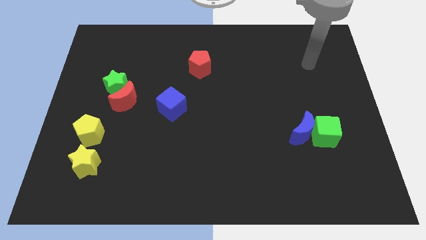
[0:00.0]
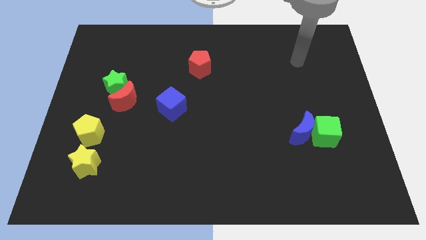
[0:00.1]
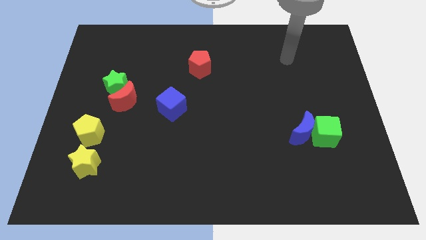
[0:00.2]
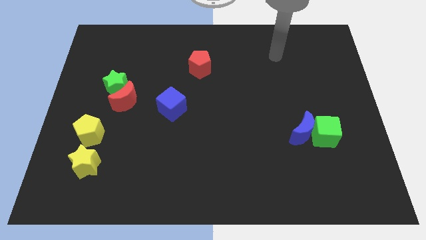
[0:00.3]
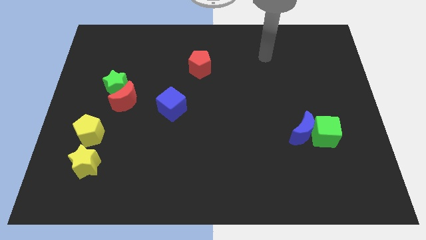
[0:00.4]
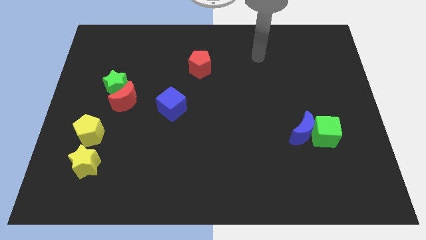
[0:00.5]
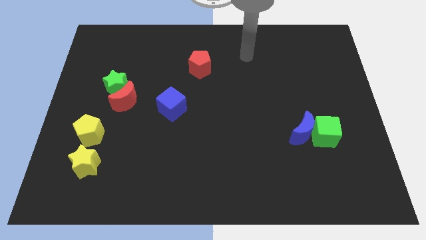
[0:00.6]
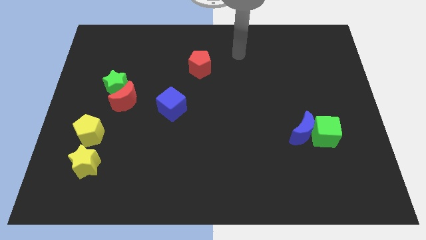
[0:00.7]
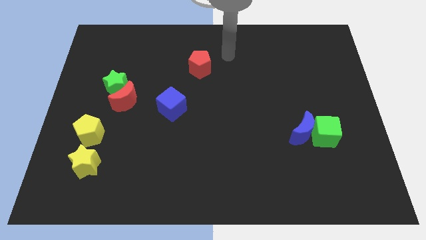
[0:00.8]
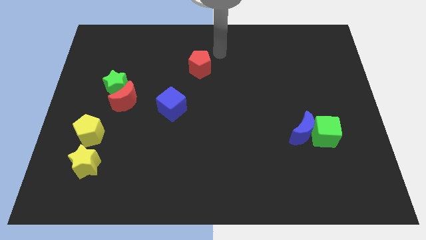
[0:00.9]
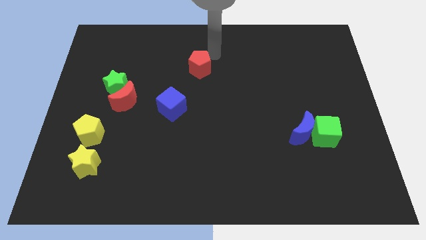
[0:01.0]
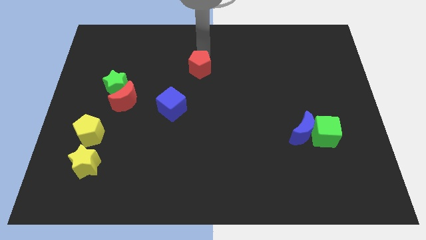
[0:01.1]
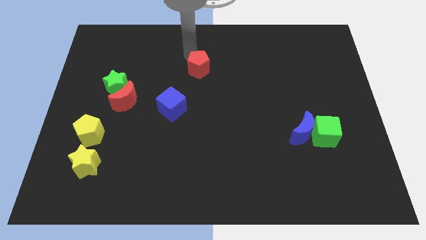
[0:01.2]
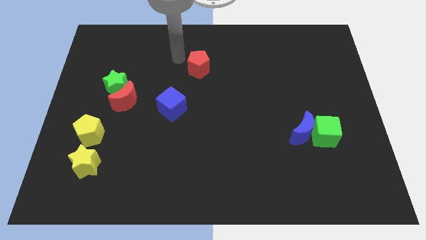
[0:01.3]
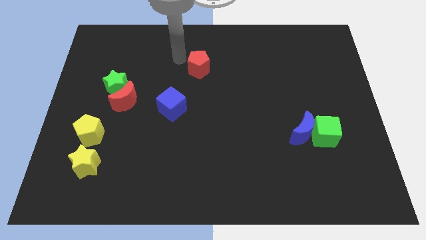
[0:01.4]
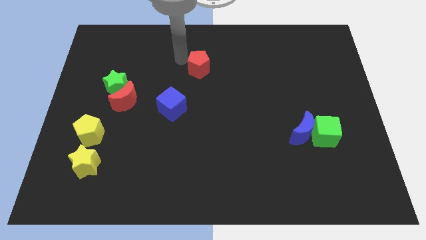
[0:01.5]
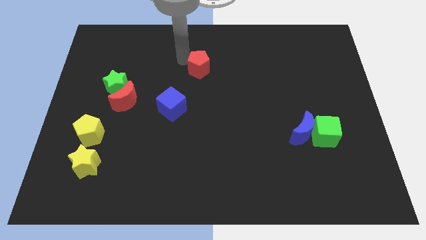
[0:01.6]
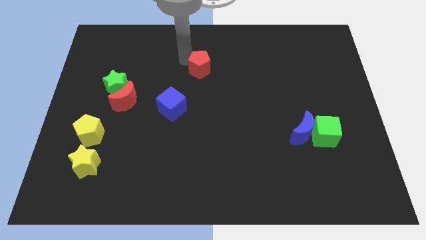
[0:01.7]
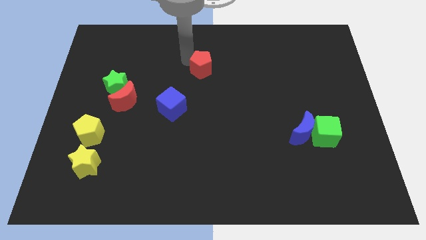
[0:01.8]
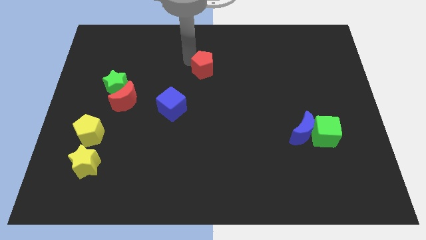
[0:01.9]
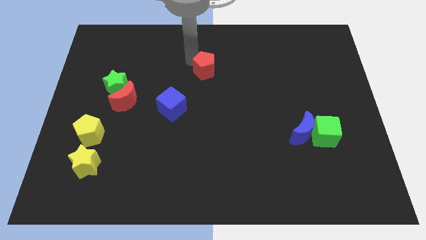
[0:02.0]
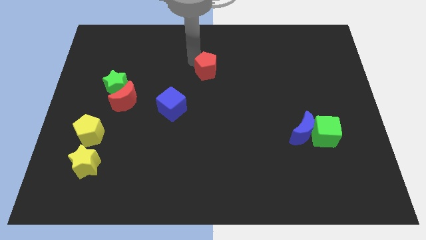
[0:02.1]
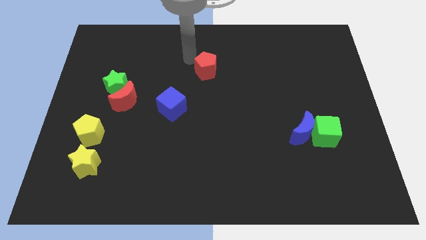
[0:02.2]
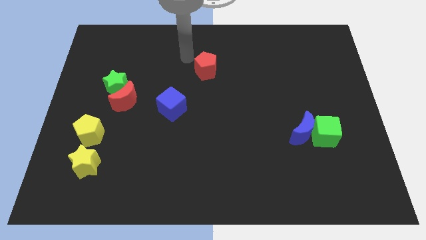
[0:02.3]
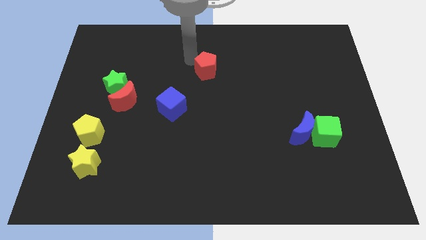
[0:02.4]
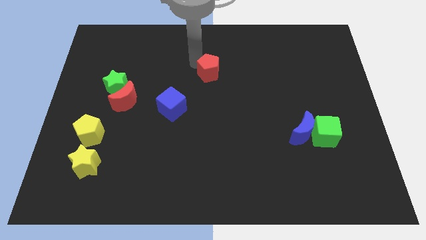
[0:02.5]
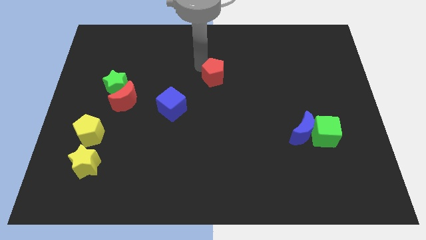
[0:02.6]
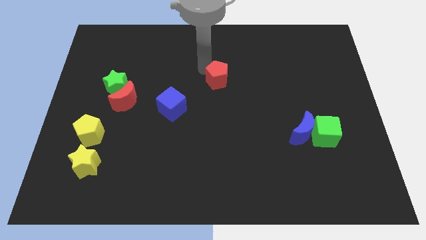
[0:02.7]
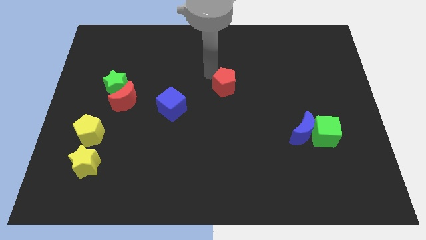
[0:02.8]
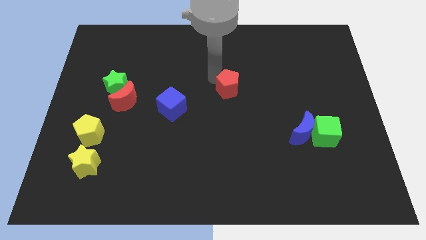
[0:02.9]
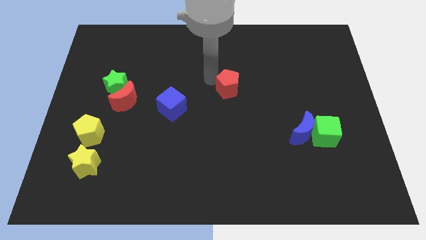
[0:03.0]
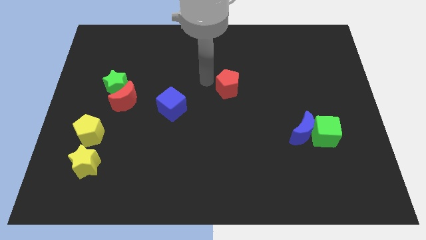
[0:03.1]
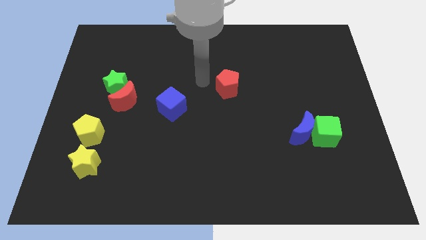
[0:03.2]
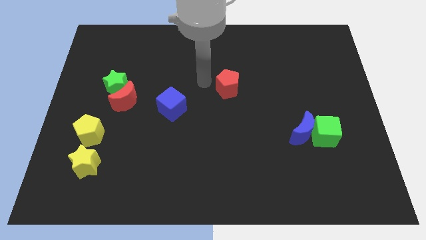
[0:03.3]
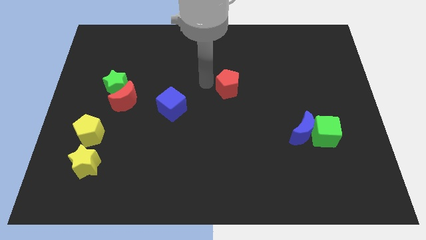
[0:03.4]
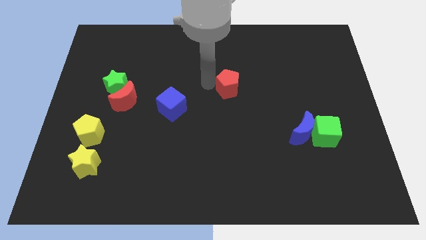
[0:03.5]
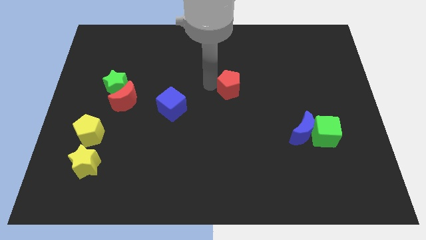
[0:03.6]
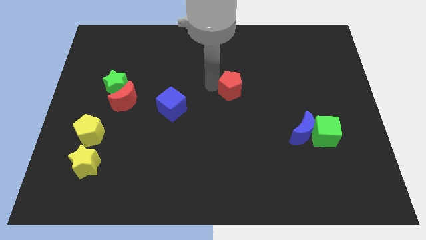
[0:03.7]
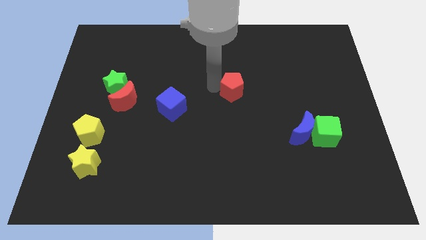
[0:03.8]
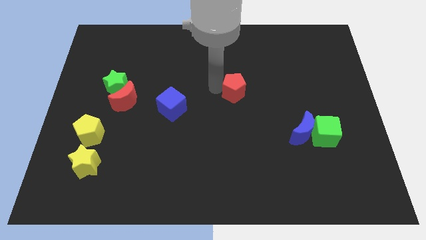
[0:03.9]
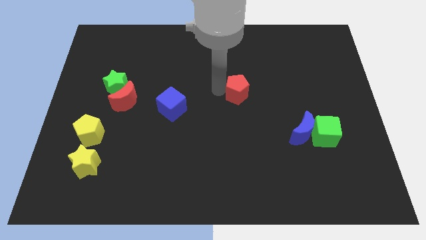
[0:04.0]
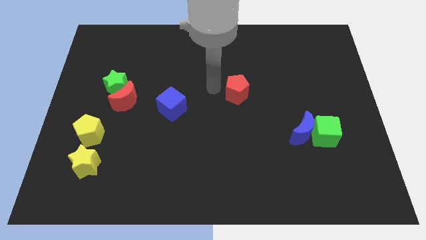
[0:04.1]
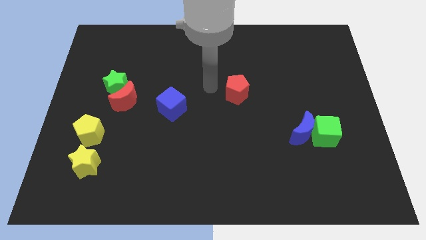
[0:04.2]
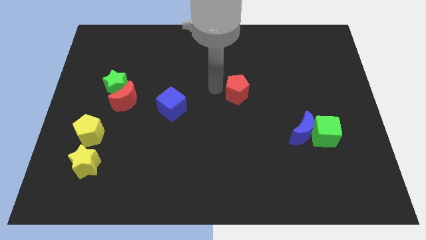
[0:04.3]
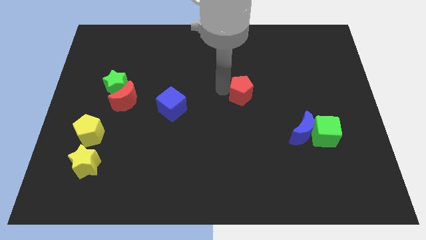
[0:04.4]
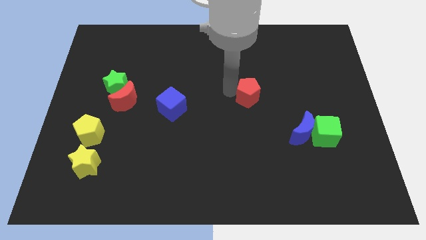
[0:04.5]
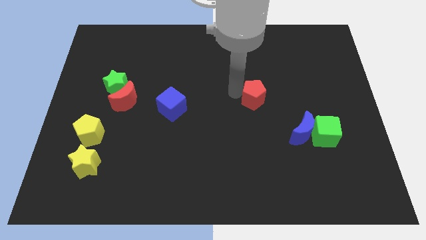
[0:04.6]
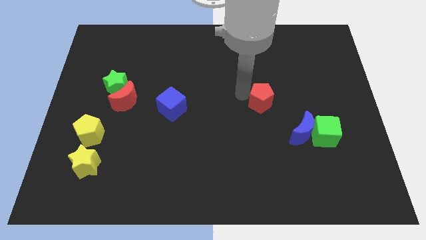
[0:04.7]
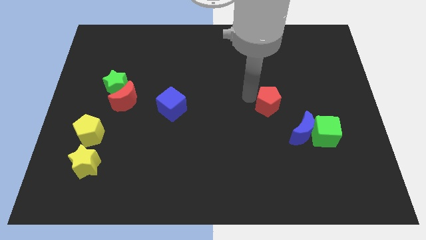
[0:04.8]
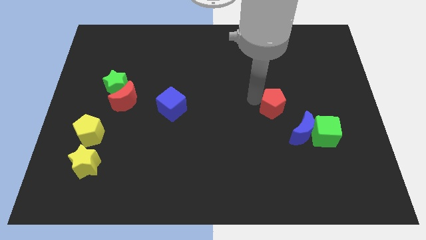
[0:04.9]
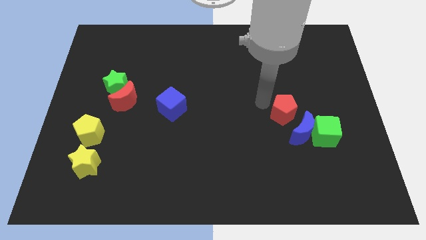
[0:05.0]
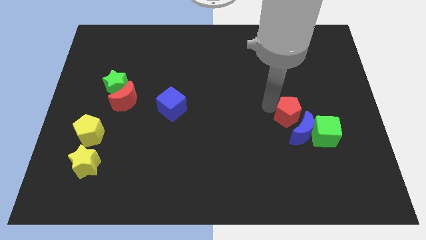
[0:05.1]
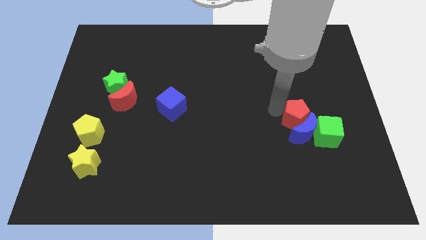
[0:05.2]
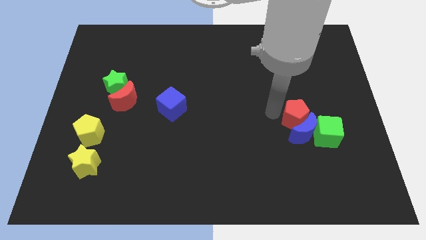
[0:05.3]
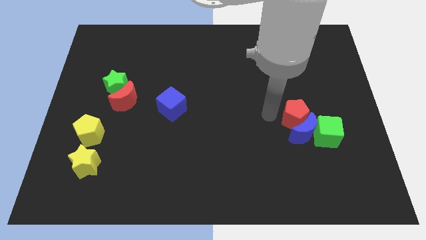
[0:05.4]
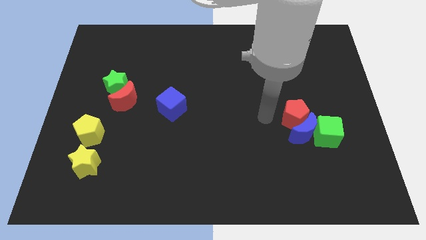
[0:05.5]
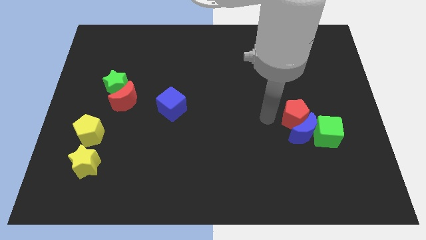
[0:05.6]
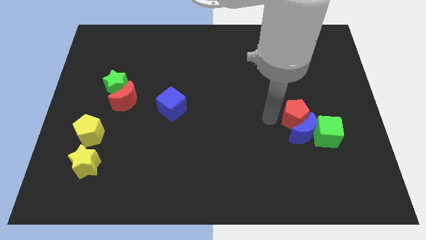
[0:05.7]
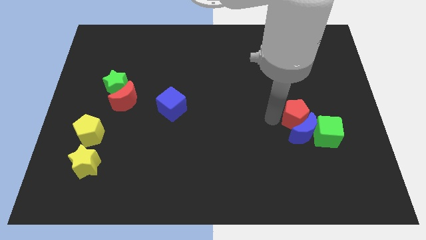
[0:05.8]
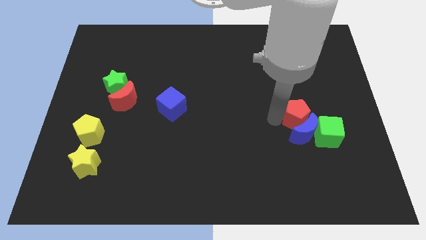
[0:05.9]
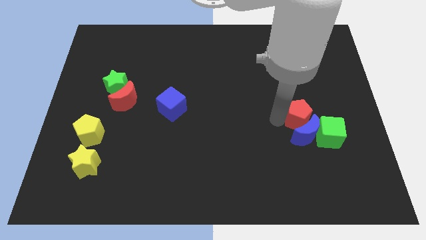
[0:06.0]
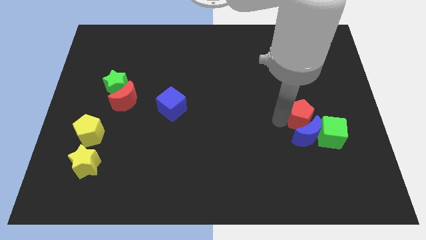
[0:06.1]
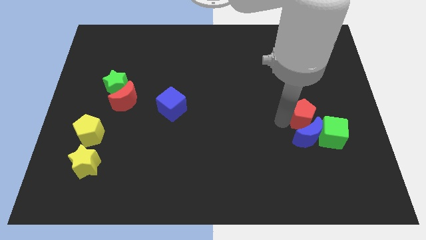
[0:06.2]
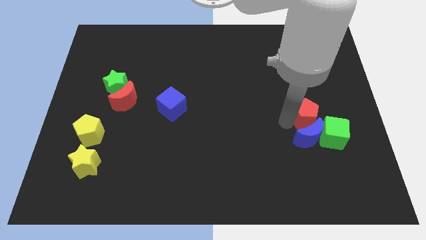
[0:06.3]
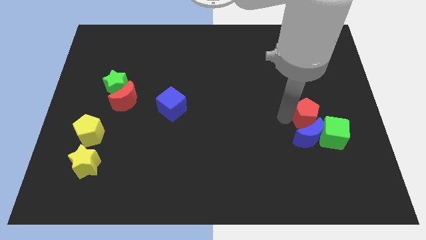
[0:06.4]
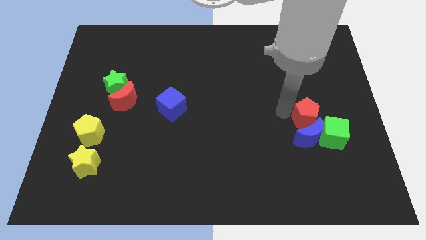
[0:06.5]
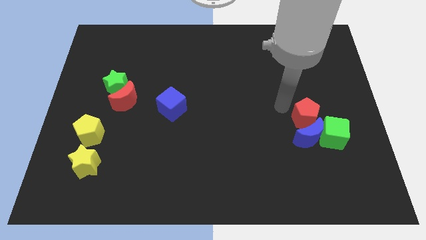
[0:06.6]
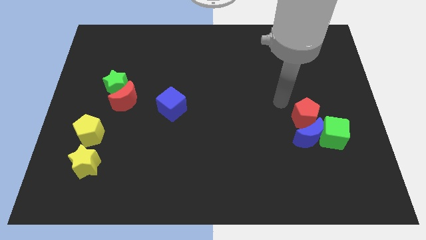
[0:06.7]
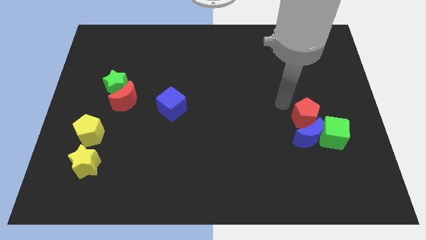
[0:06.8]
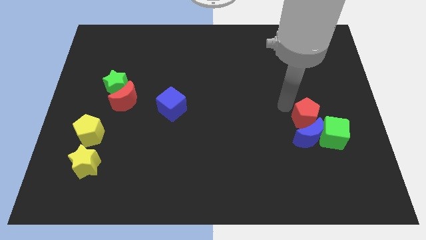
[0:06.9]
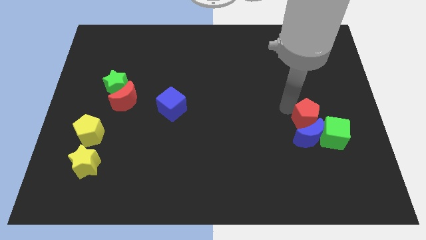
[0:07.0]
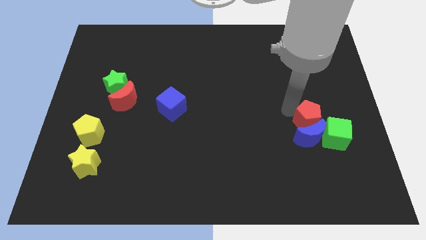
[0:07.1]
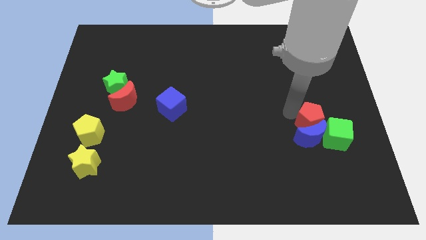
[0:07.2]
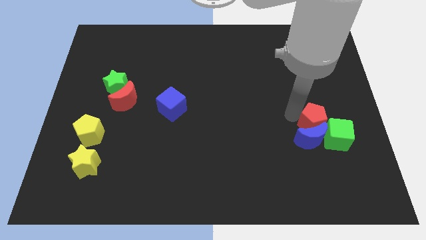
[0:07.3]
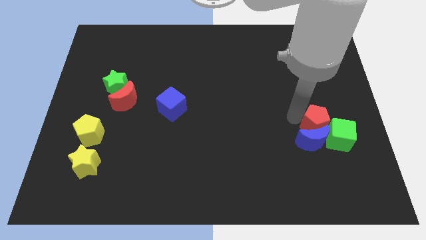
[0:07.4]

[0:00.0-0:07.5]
put the red pentagon towards the green cube
